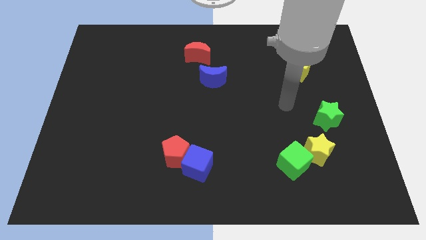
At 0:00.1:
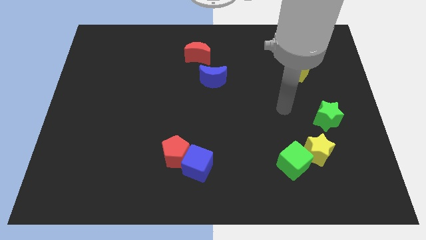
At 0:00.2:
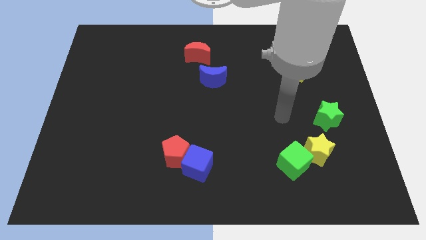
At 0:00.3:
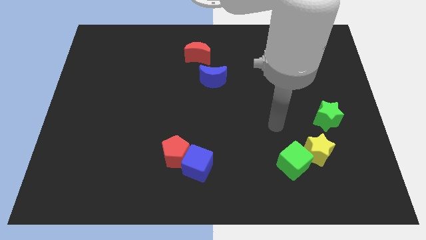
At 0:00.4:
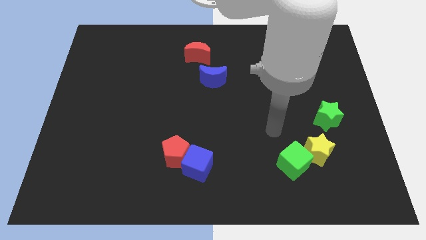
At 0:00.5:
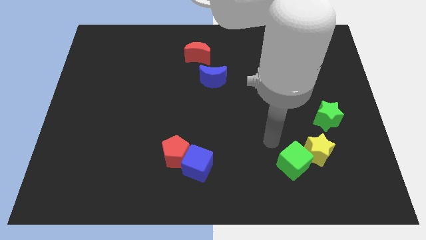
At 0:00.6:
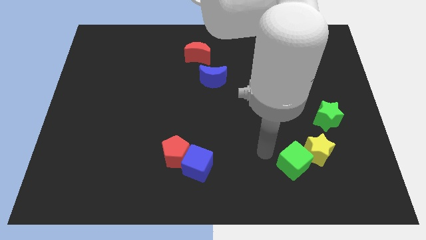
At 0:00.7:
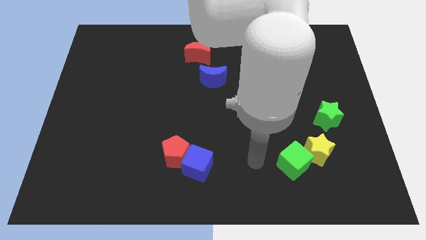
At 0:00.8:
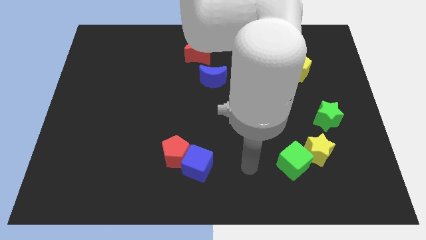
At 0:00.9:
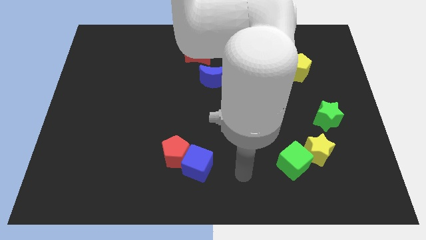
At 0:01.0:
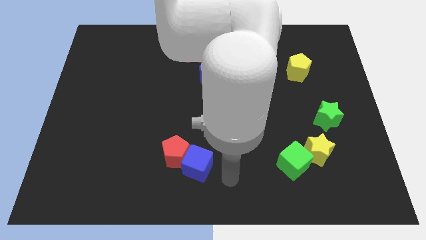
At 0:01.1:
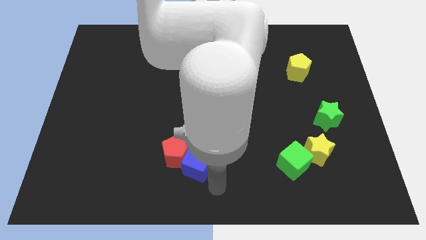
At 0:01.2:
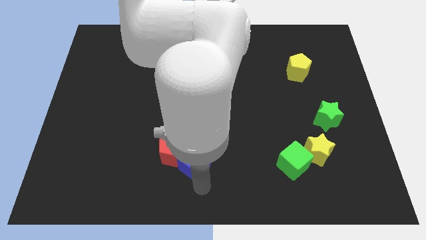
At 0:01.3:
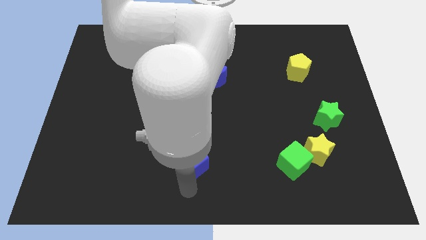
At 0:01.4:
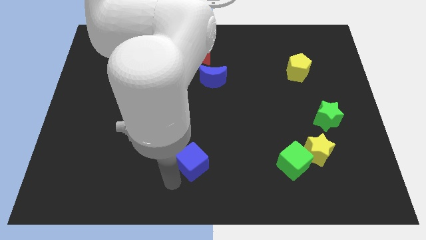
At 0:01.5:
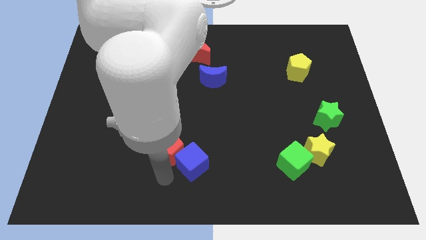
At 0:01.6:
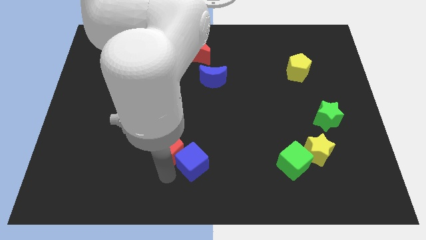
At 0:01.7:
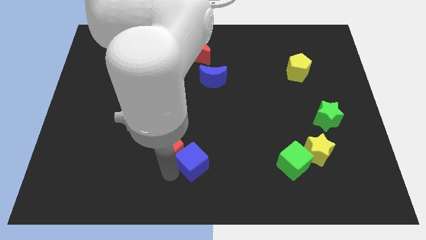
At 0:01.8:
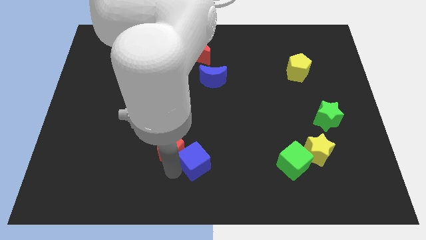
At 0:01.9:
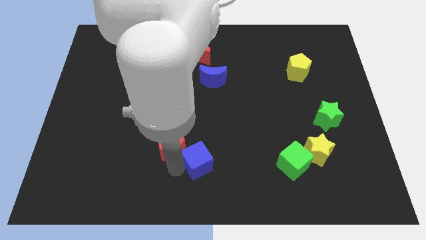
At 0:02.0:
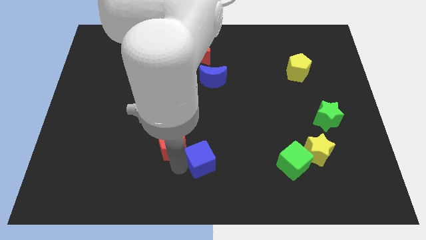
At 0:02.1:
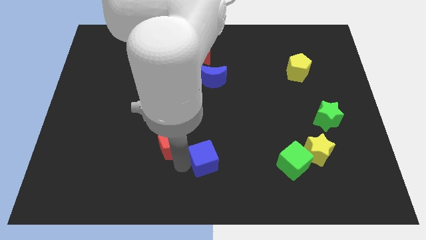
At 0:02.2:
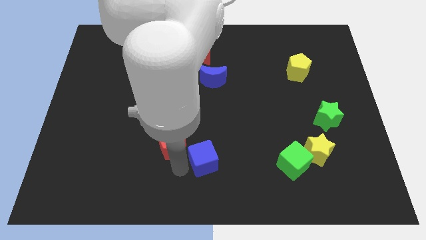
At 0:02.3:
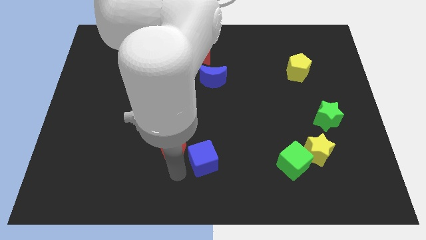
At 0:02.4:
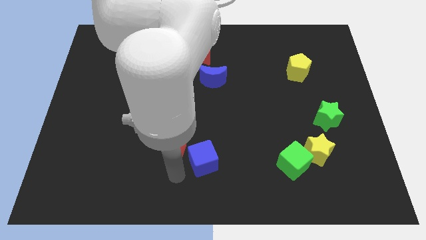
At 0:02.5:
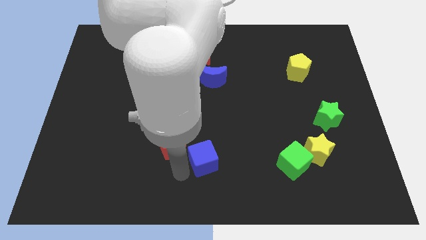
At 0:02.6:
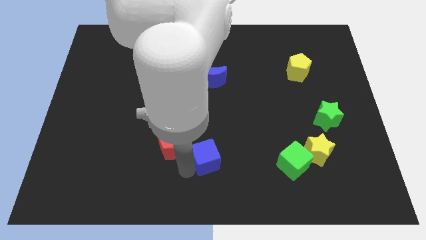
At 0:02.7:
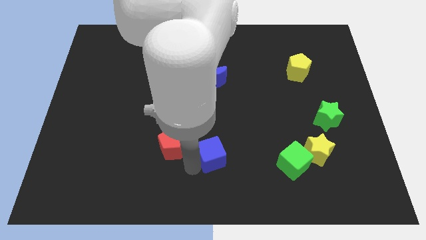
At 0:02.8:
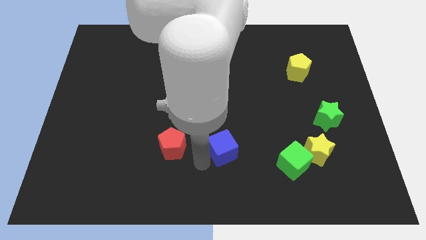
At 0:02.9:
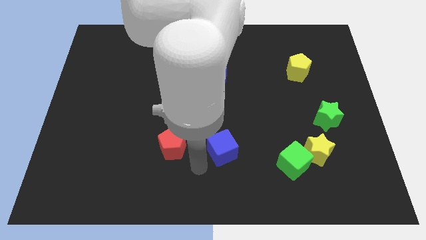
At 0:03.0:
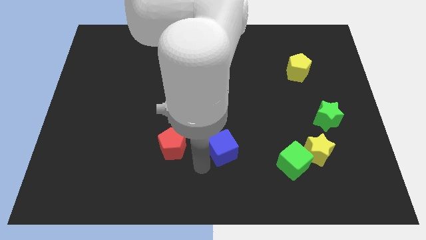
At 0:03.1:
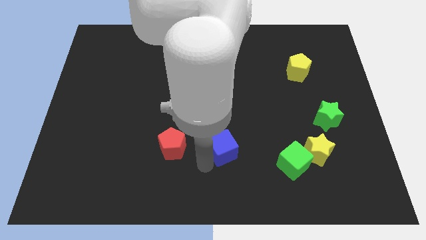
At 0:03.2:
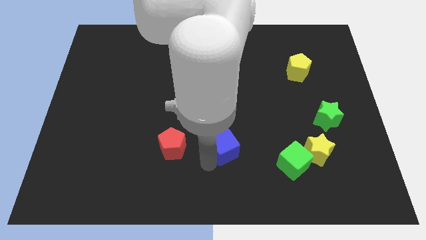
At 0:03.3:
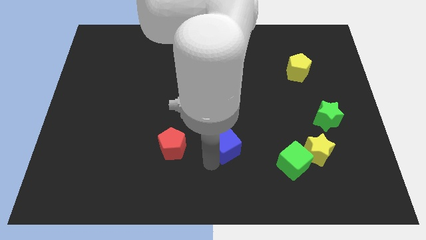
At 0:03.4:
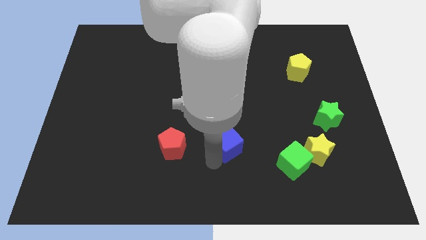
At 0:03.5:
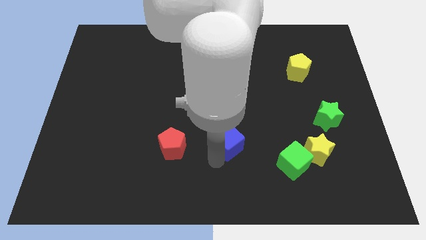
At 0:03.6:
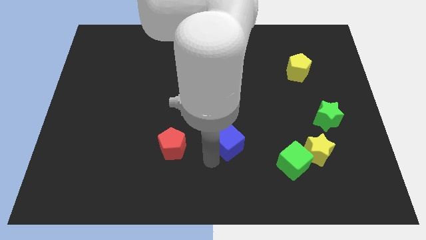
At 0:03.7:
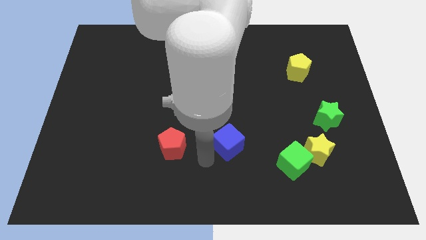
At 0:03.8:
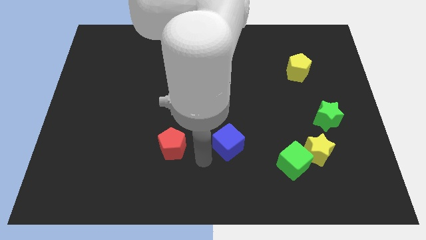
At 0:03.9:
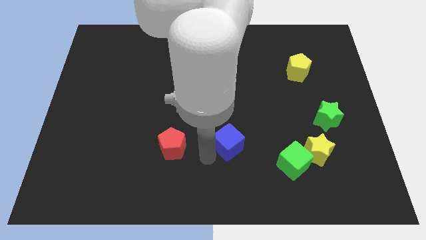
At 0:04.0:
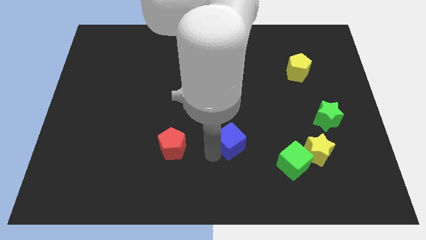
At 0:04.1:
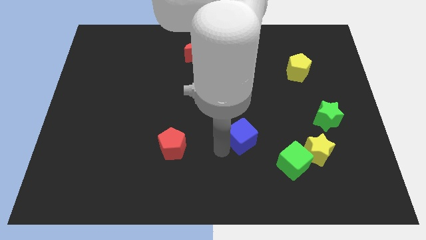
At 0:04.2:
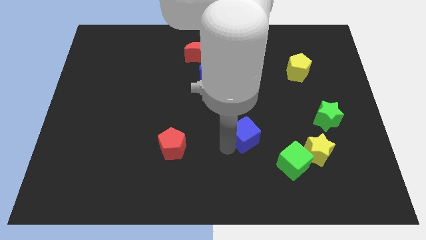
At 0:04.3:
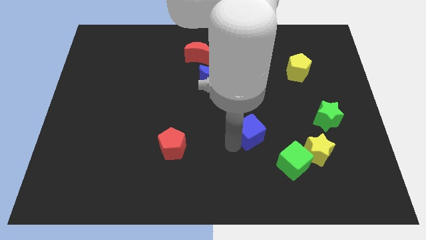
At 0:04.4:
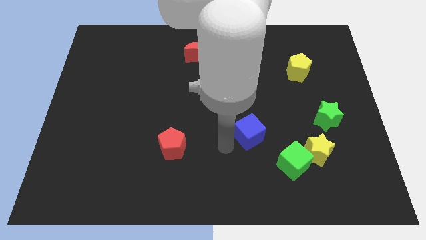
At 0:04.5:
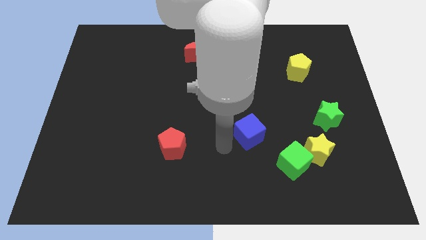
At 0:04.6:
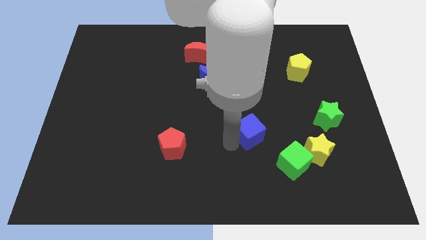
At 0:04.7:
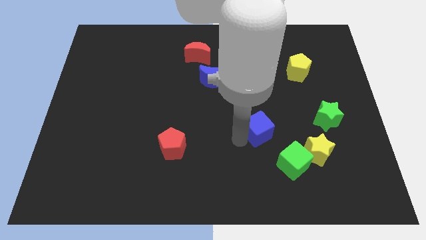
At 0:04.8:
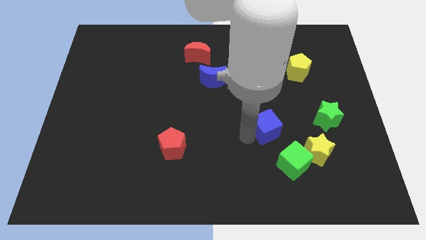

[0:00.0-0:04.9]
push the blue cube to the left side of the green star

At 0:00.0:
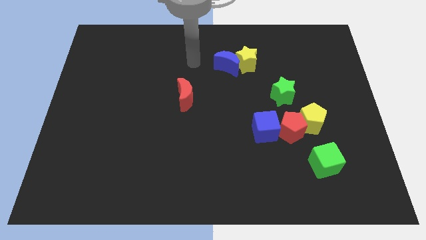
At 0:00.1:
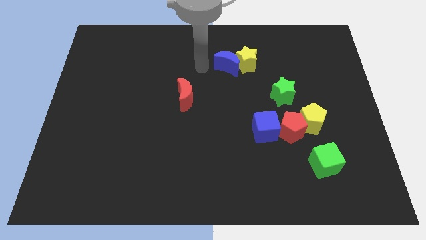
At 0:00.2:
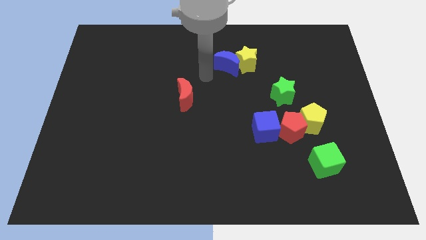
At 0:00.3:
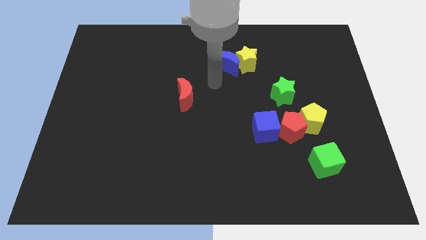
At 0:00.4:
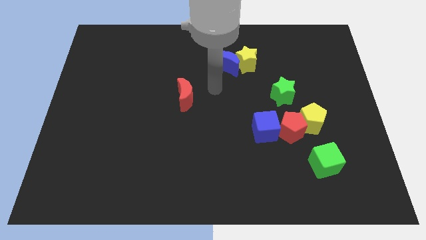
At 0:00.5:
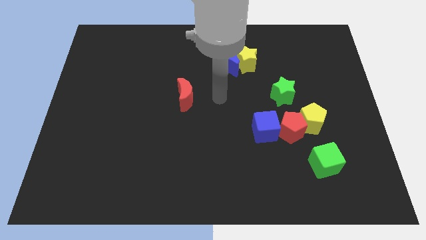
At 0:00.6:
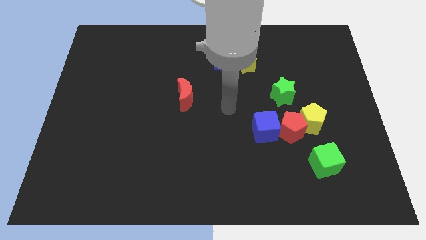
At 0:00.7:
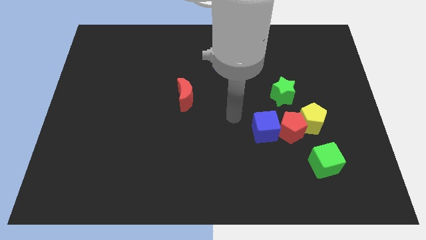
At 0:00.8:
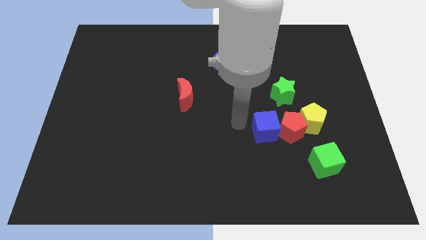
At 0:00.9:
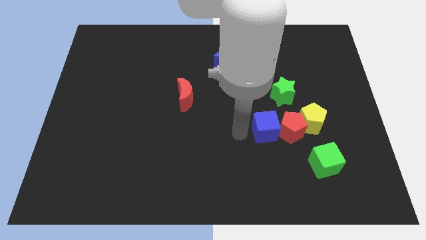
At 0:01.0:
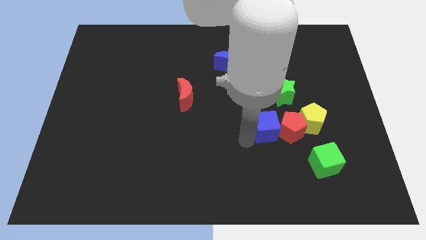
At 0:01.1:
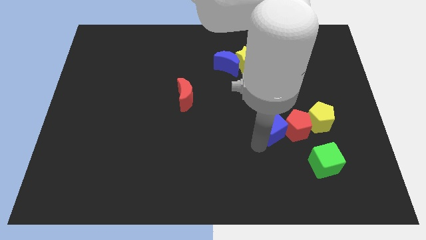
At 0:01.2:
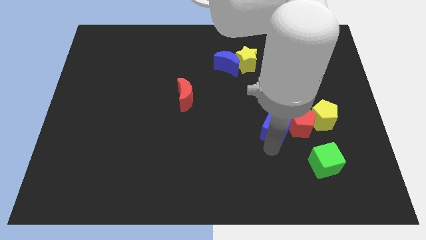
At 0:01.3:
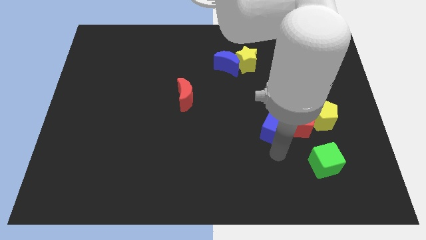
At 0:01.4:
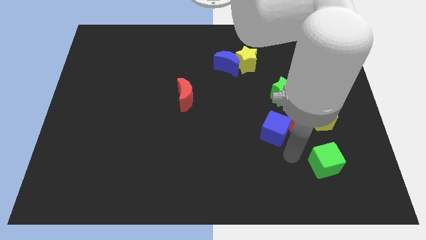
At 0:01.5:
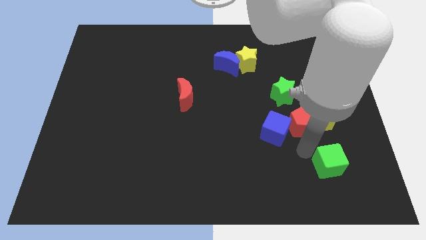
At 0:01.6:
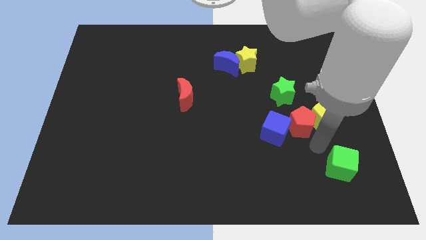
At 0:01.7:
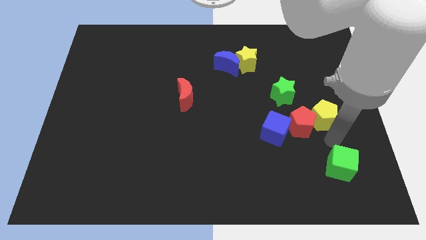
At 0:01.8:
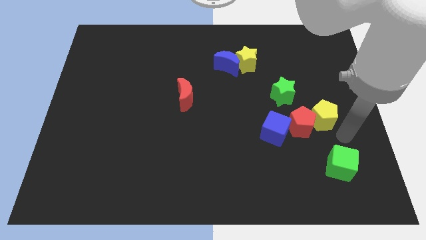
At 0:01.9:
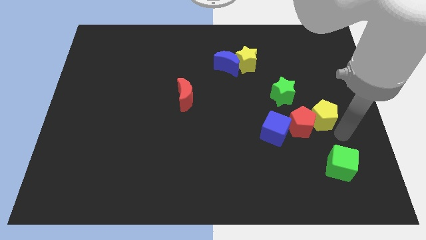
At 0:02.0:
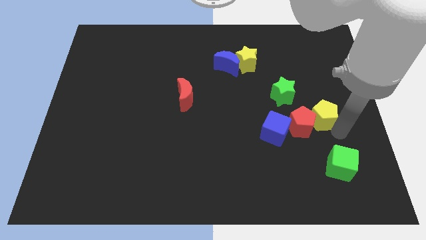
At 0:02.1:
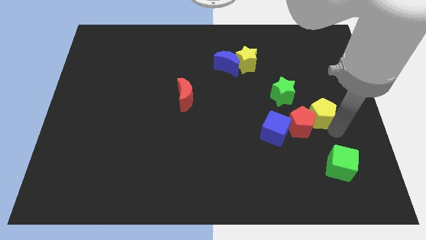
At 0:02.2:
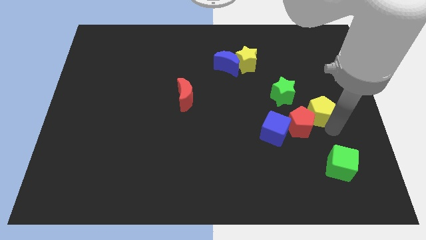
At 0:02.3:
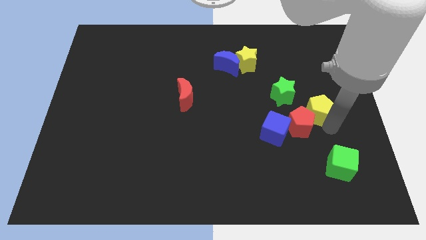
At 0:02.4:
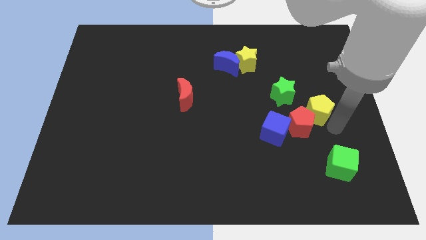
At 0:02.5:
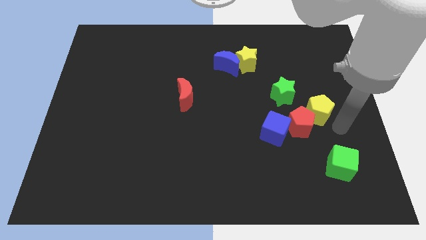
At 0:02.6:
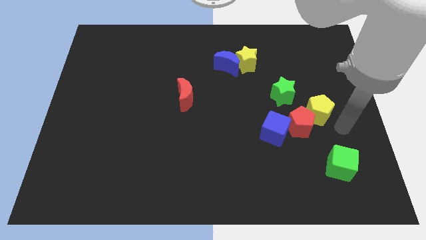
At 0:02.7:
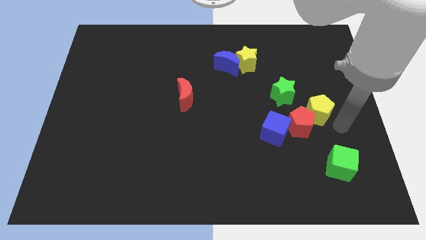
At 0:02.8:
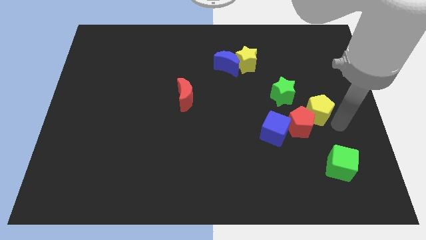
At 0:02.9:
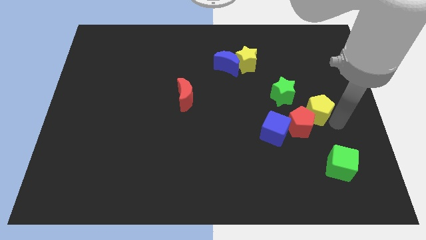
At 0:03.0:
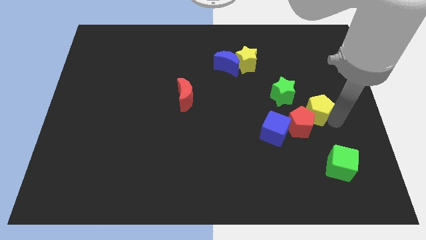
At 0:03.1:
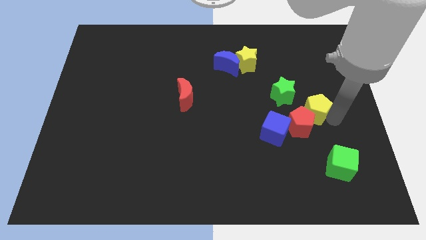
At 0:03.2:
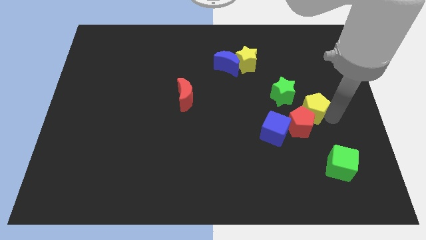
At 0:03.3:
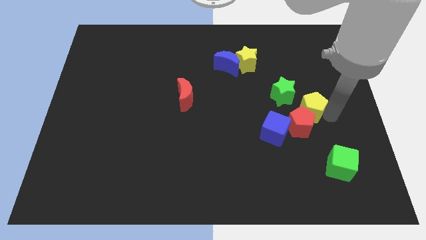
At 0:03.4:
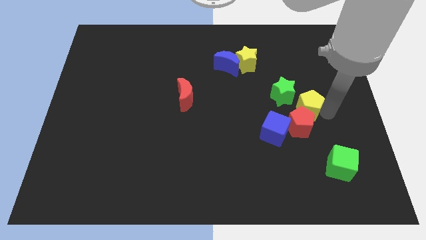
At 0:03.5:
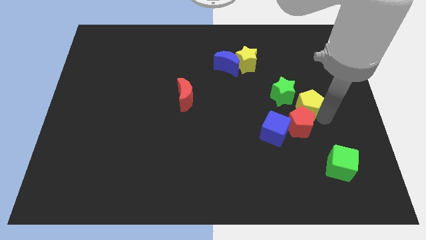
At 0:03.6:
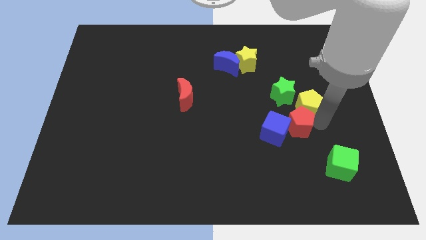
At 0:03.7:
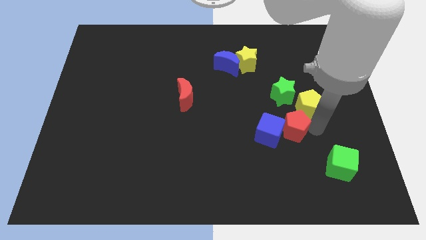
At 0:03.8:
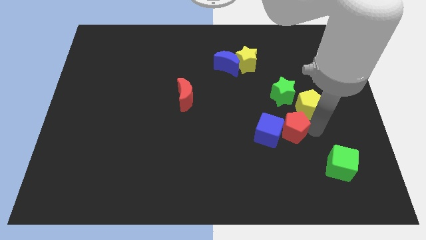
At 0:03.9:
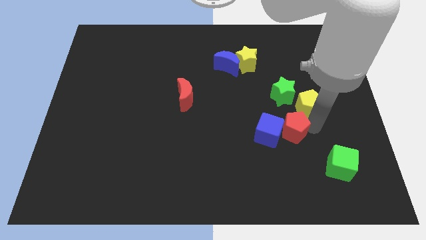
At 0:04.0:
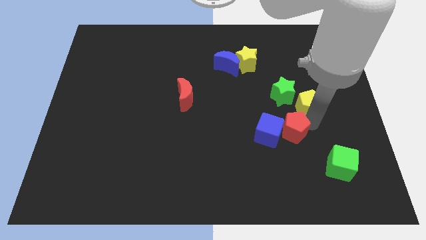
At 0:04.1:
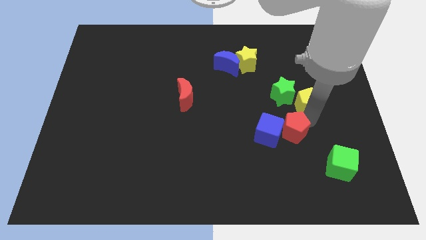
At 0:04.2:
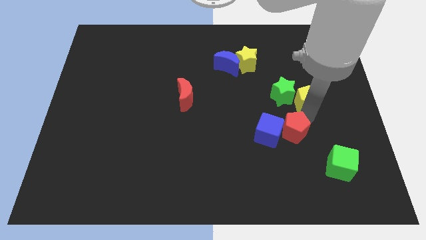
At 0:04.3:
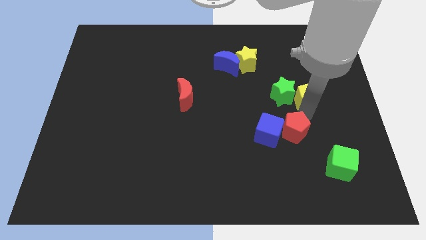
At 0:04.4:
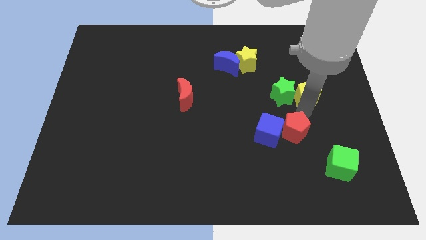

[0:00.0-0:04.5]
push the yellow pentagon to the top right side of the green star
